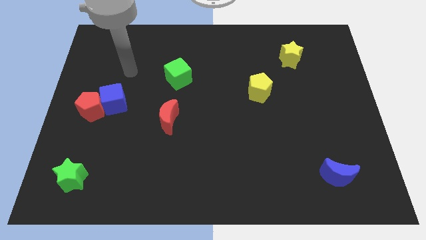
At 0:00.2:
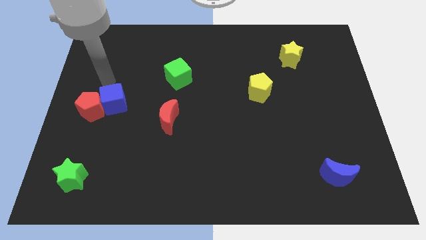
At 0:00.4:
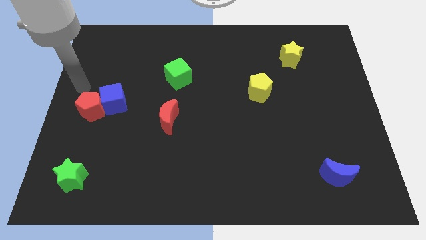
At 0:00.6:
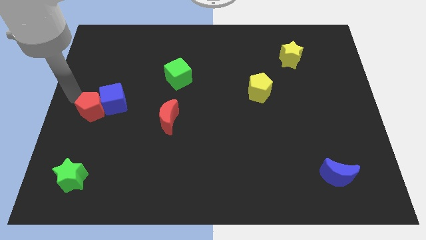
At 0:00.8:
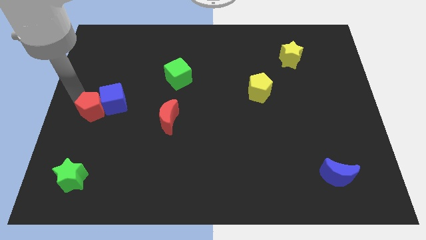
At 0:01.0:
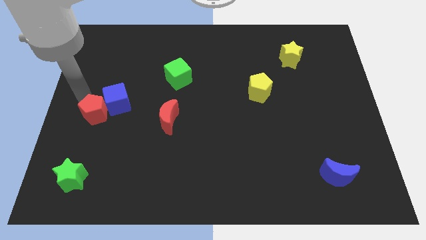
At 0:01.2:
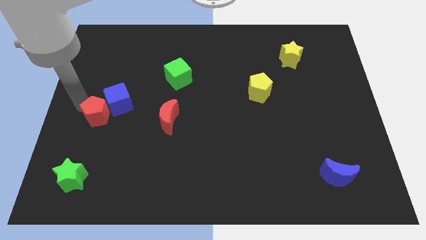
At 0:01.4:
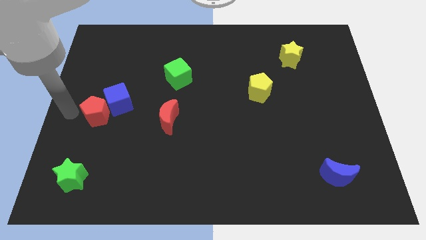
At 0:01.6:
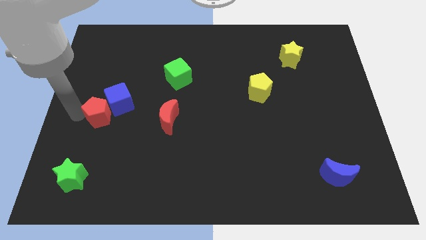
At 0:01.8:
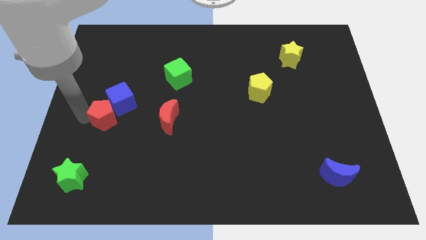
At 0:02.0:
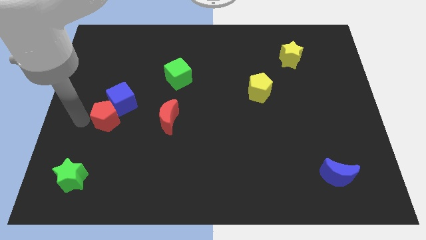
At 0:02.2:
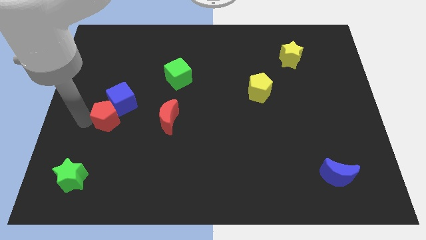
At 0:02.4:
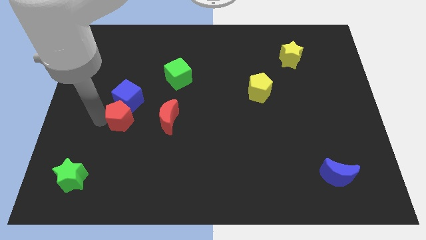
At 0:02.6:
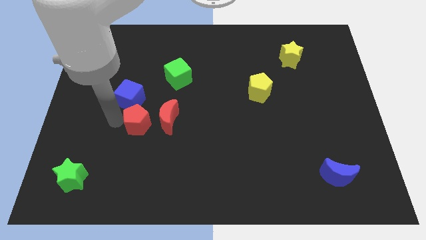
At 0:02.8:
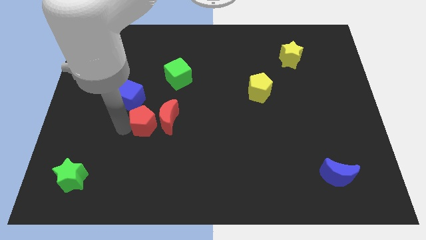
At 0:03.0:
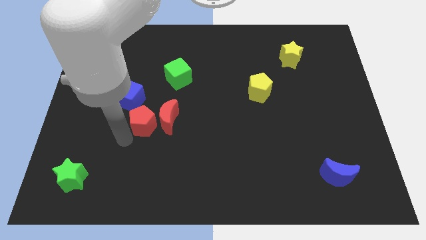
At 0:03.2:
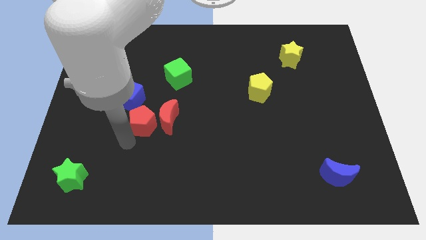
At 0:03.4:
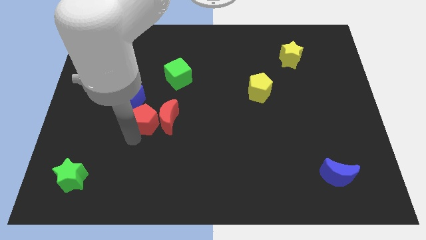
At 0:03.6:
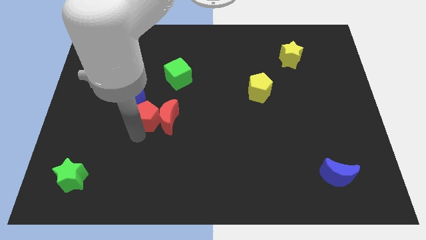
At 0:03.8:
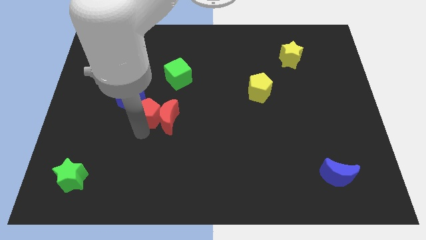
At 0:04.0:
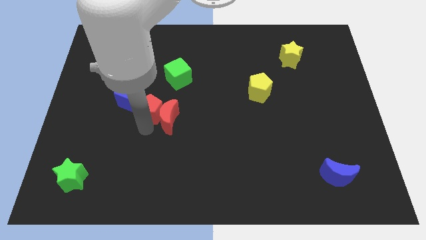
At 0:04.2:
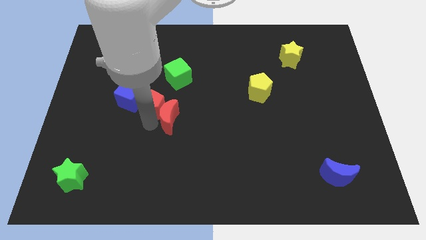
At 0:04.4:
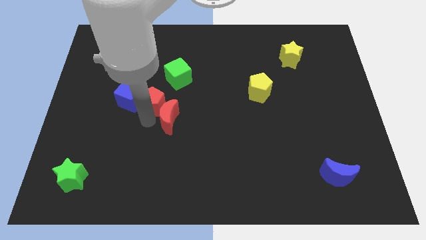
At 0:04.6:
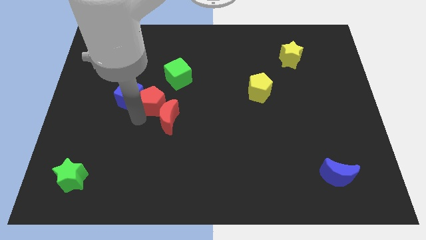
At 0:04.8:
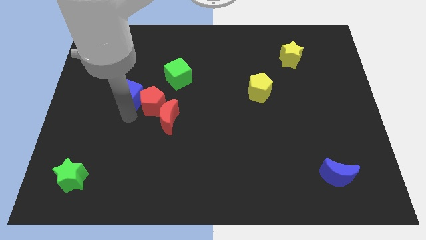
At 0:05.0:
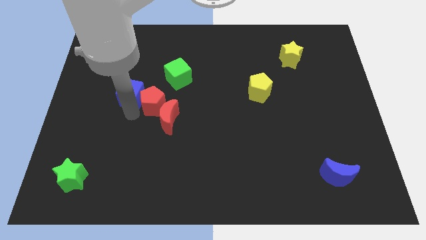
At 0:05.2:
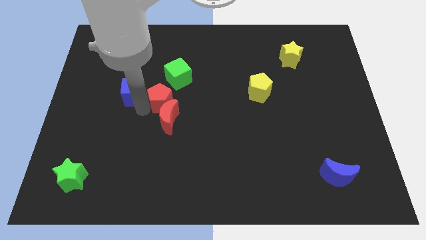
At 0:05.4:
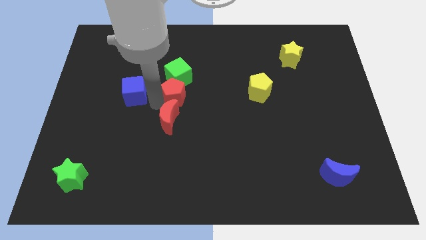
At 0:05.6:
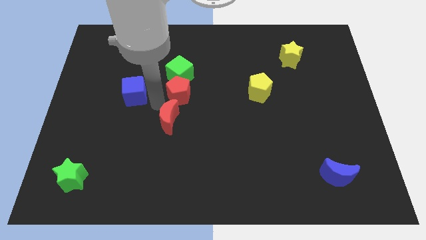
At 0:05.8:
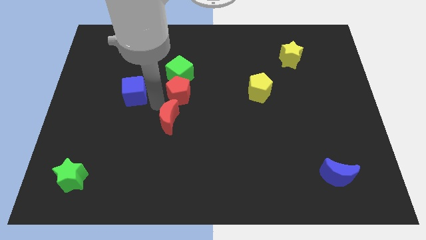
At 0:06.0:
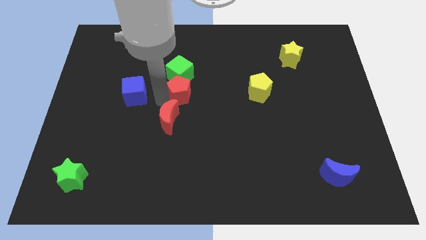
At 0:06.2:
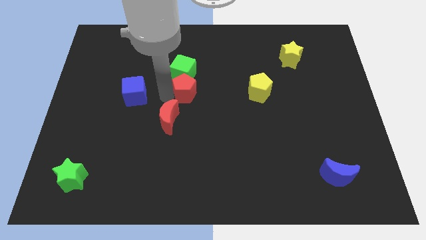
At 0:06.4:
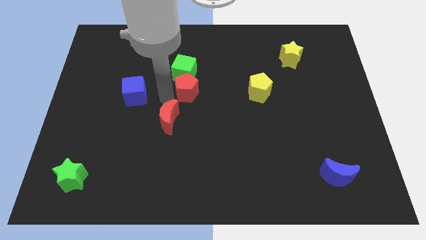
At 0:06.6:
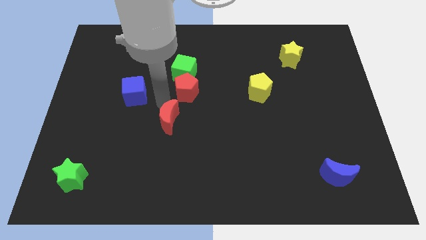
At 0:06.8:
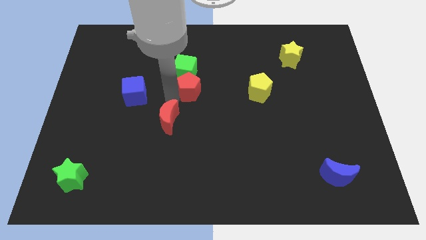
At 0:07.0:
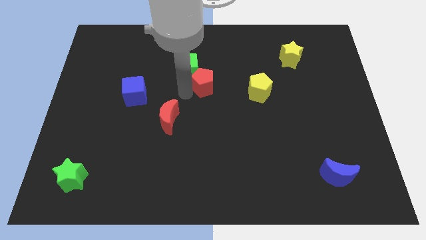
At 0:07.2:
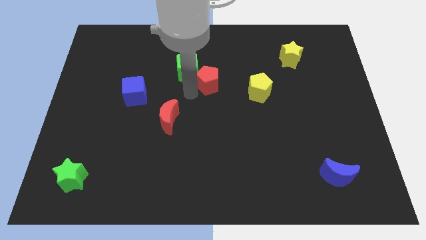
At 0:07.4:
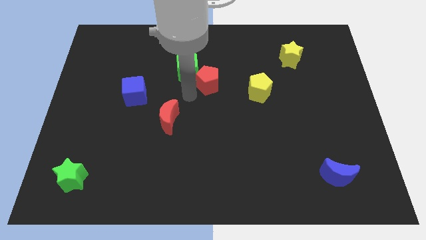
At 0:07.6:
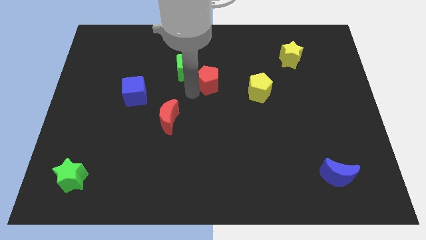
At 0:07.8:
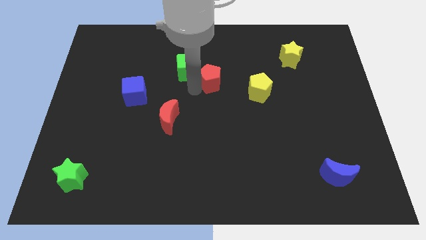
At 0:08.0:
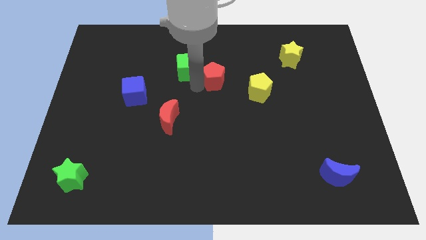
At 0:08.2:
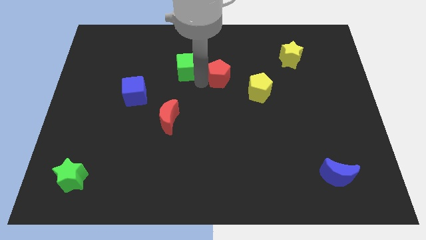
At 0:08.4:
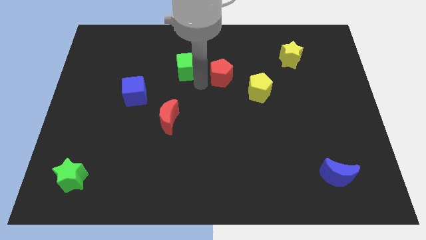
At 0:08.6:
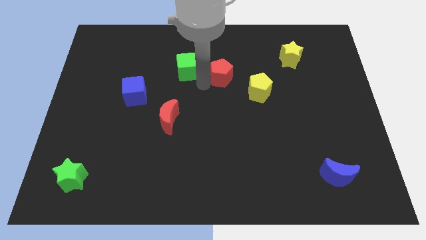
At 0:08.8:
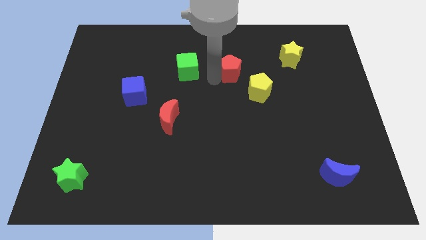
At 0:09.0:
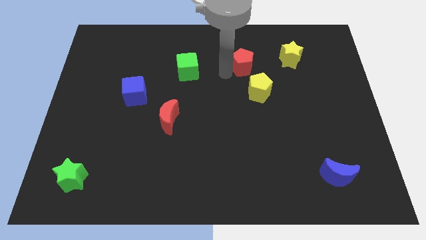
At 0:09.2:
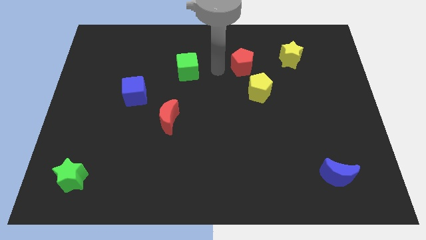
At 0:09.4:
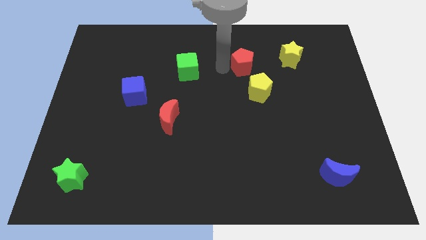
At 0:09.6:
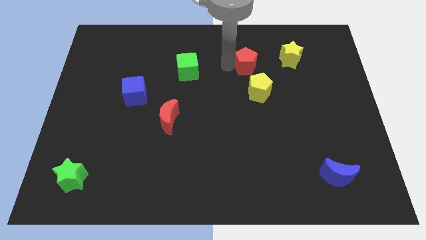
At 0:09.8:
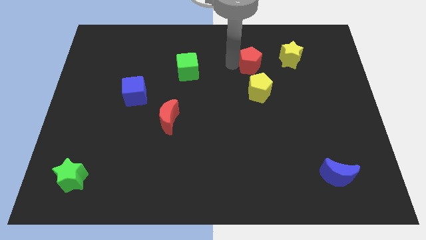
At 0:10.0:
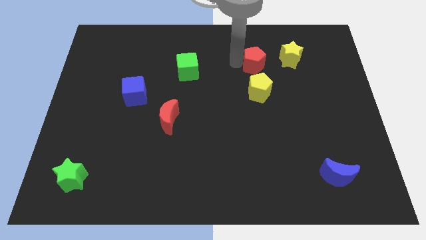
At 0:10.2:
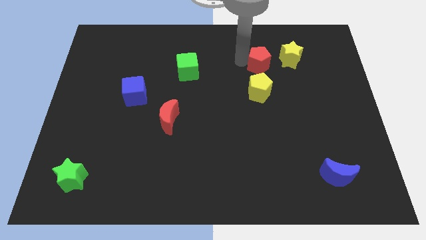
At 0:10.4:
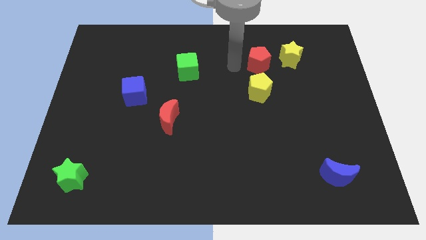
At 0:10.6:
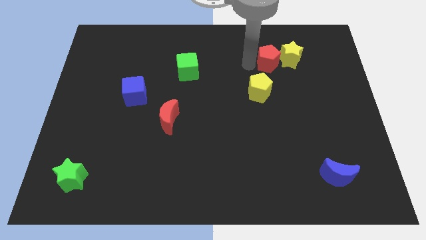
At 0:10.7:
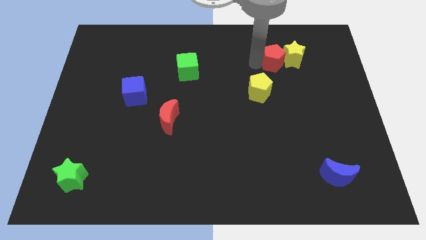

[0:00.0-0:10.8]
push the red pentagon towards the yellow star

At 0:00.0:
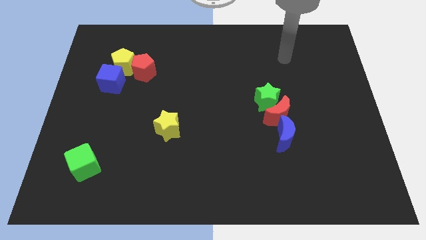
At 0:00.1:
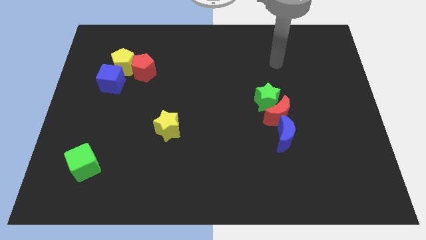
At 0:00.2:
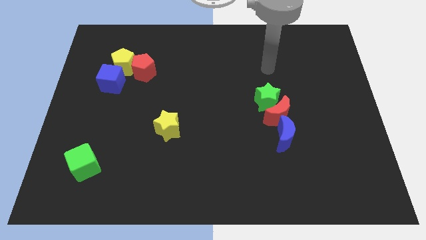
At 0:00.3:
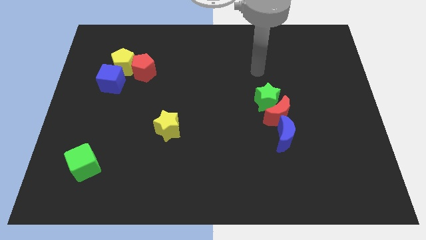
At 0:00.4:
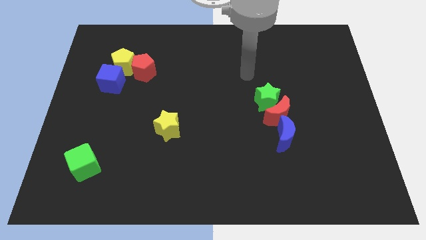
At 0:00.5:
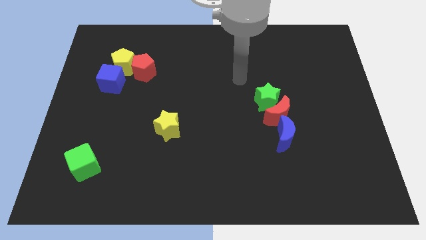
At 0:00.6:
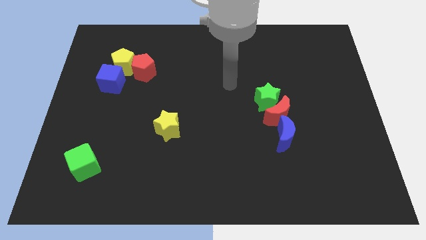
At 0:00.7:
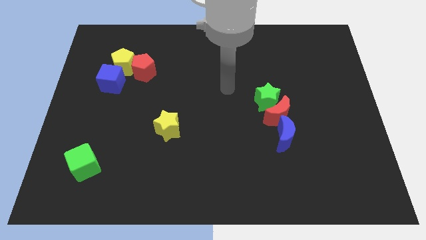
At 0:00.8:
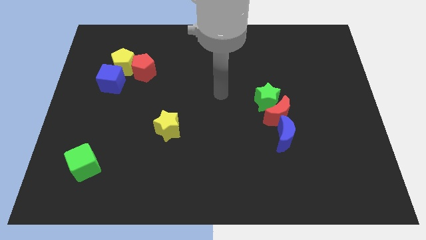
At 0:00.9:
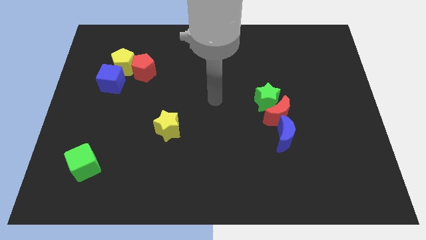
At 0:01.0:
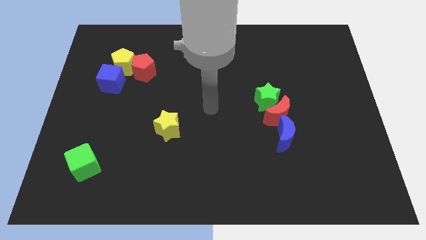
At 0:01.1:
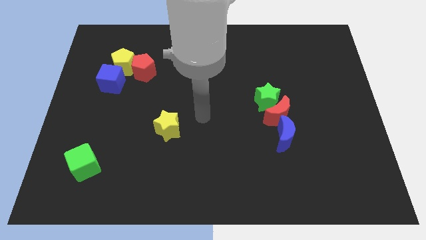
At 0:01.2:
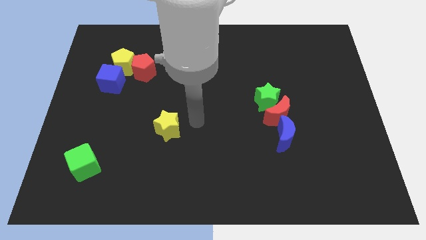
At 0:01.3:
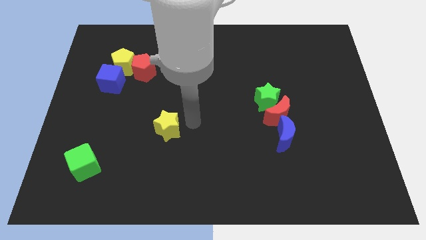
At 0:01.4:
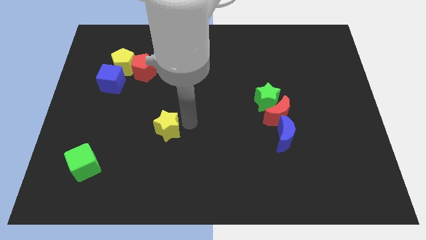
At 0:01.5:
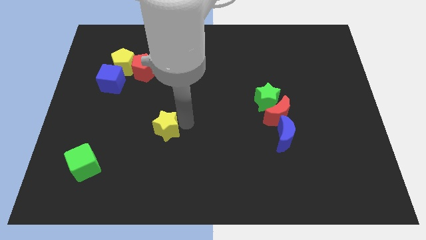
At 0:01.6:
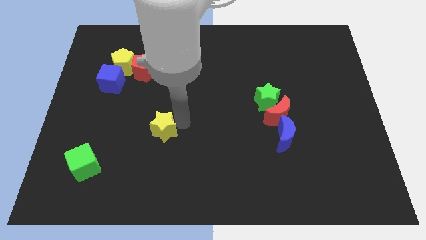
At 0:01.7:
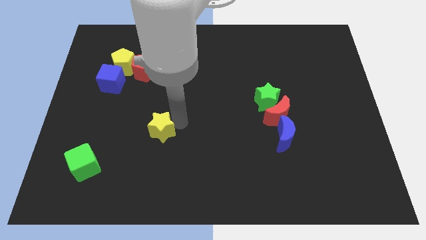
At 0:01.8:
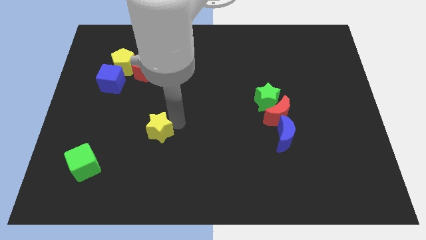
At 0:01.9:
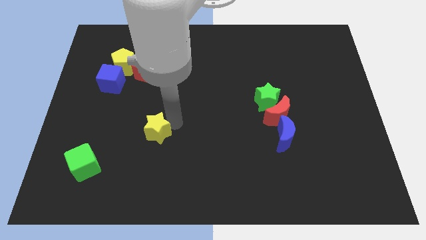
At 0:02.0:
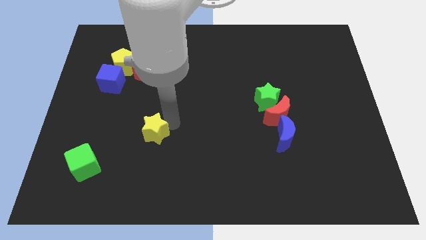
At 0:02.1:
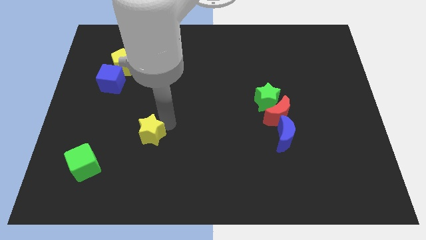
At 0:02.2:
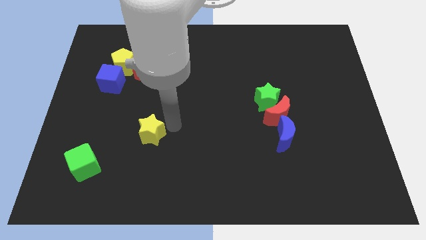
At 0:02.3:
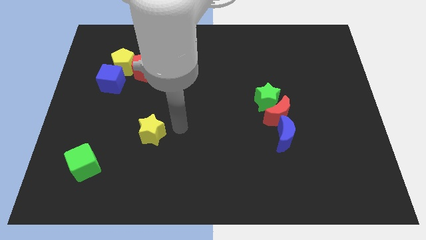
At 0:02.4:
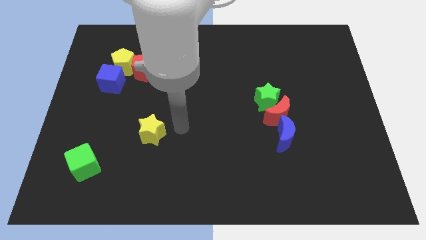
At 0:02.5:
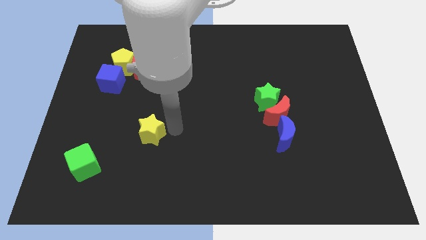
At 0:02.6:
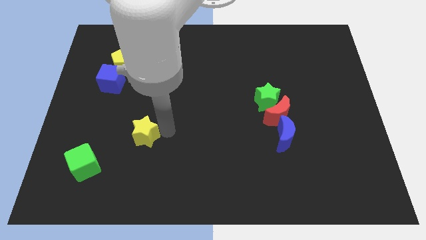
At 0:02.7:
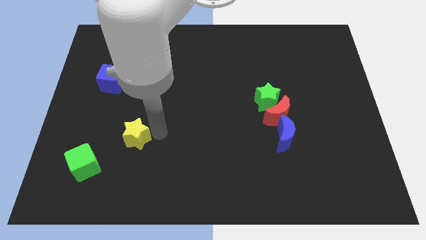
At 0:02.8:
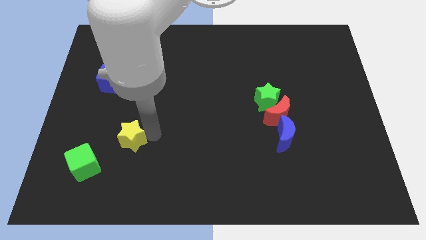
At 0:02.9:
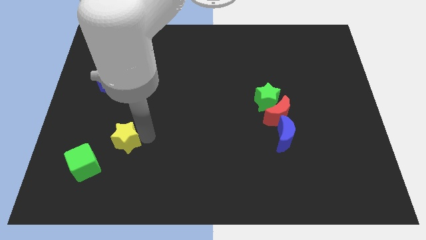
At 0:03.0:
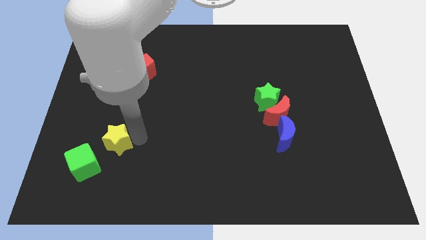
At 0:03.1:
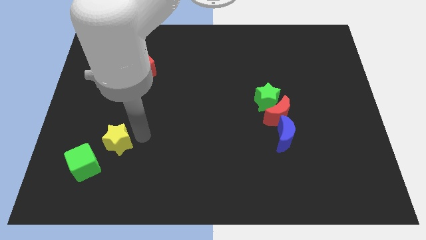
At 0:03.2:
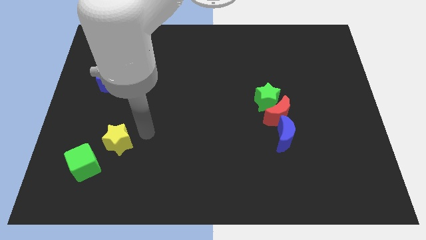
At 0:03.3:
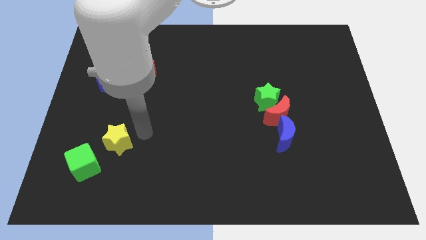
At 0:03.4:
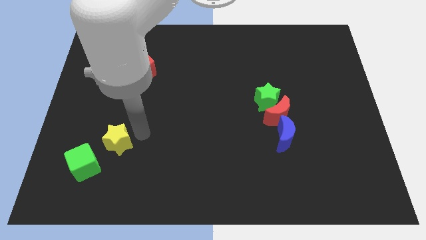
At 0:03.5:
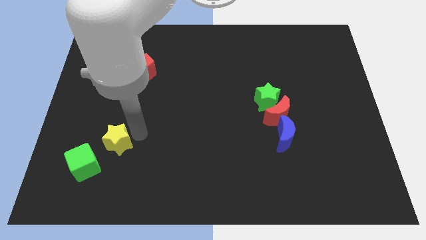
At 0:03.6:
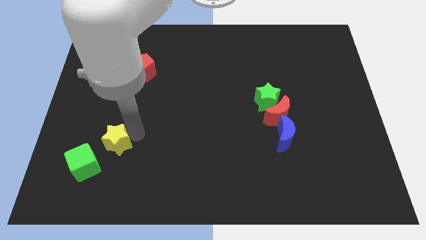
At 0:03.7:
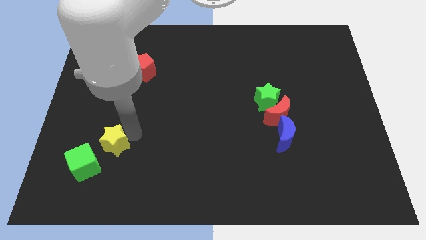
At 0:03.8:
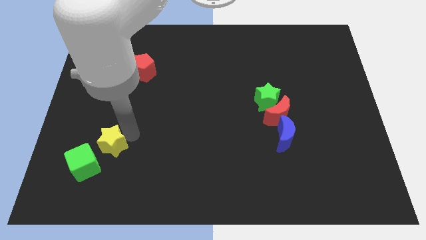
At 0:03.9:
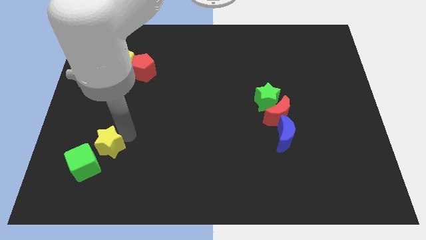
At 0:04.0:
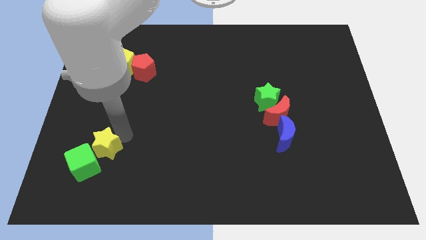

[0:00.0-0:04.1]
move the yellow star close to the green cube
